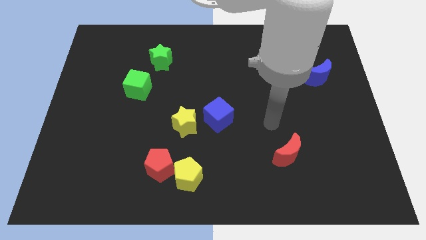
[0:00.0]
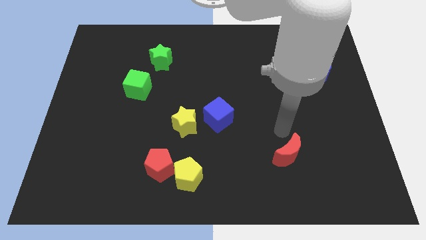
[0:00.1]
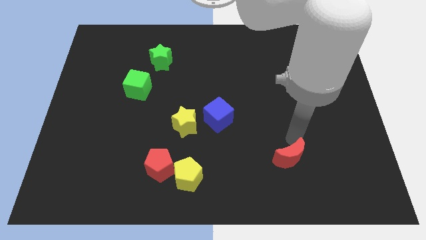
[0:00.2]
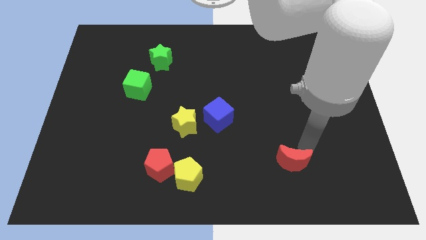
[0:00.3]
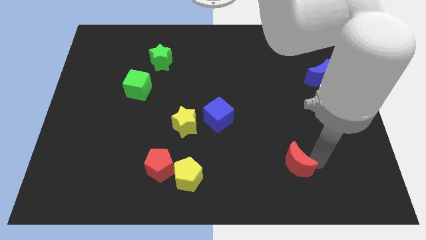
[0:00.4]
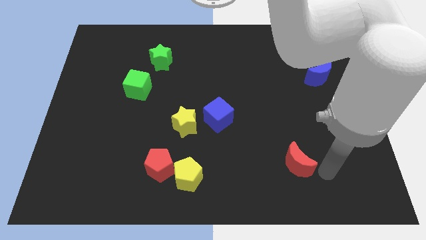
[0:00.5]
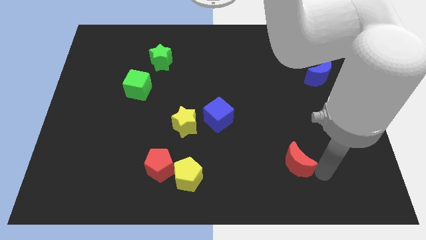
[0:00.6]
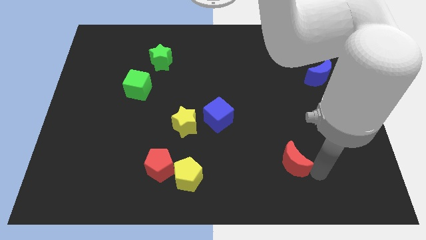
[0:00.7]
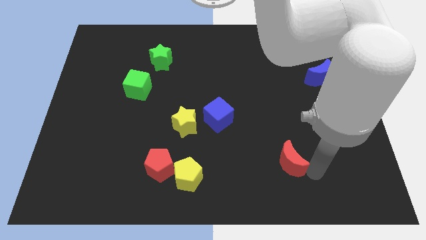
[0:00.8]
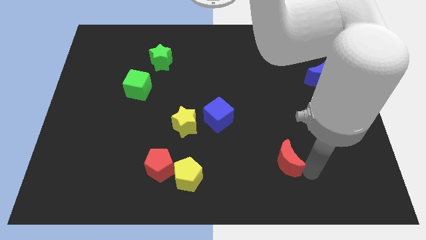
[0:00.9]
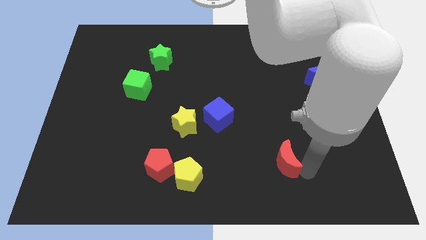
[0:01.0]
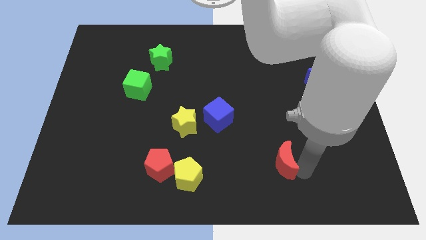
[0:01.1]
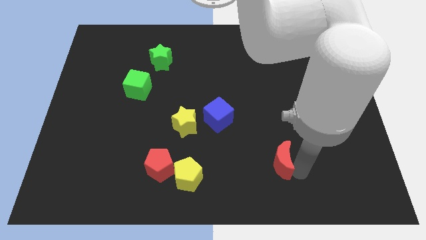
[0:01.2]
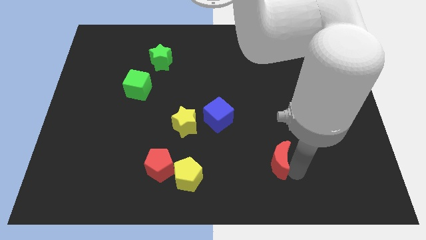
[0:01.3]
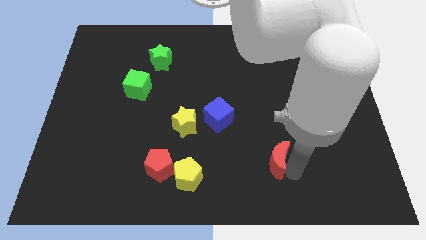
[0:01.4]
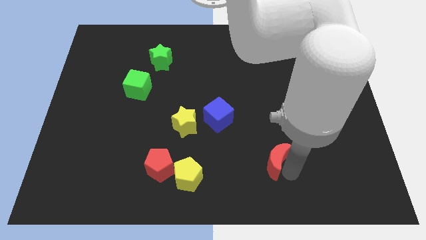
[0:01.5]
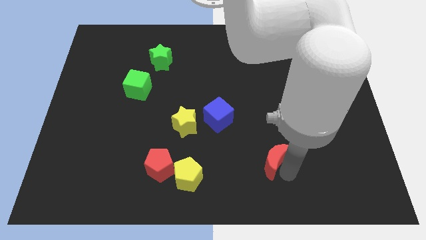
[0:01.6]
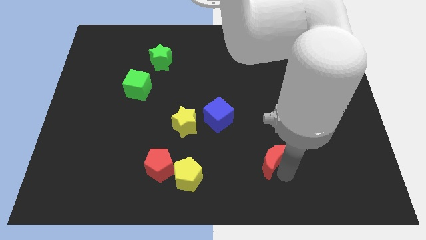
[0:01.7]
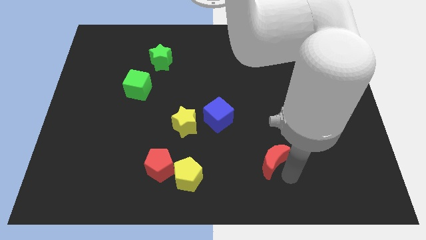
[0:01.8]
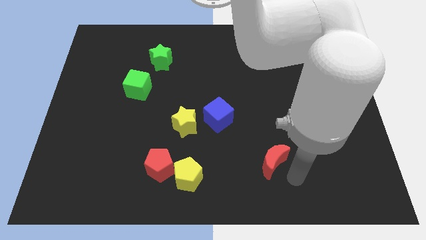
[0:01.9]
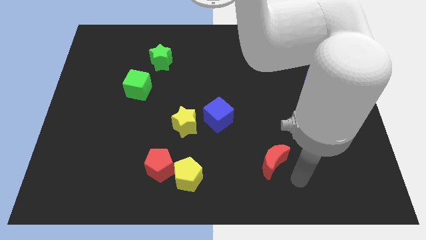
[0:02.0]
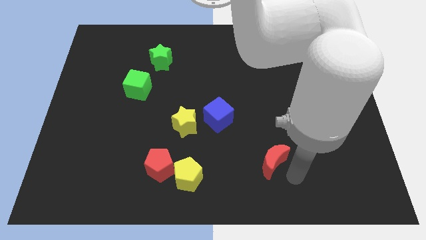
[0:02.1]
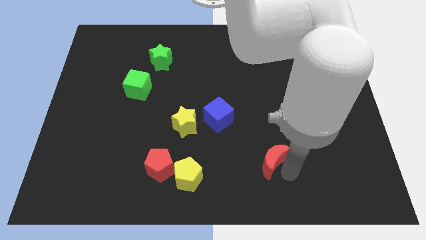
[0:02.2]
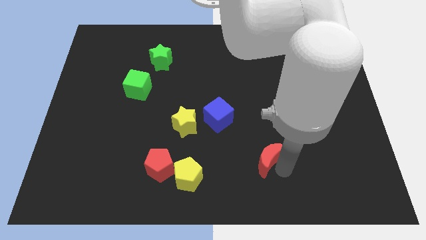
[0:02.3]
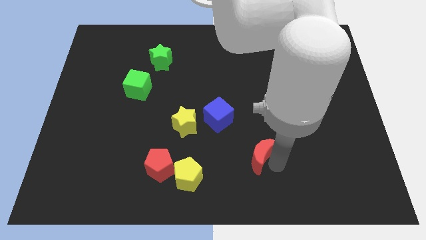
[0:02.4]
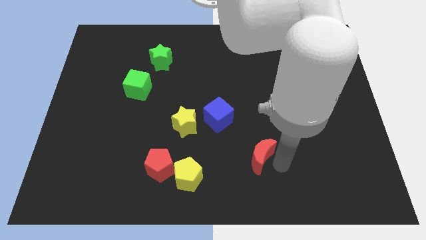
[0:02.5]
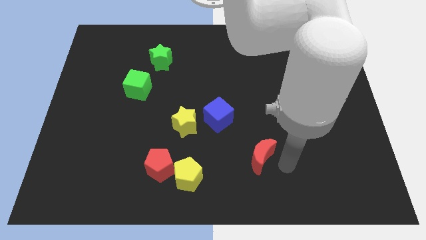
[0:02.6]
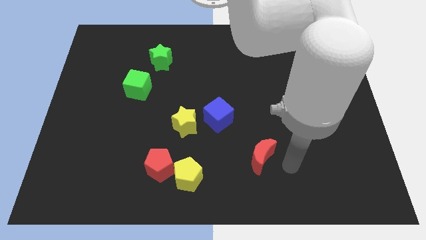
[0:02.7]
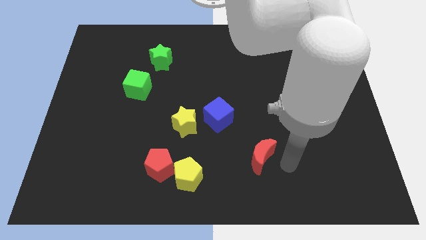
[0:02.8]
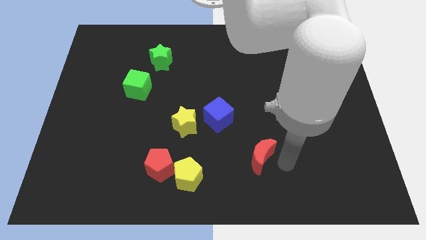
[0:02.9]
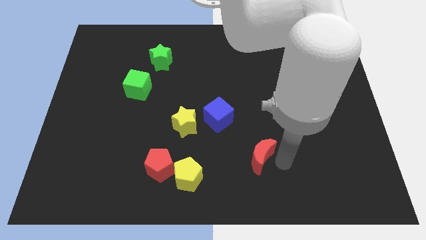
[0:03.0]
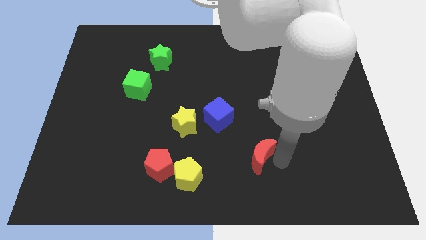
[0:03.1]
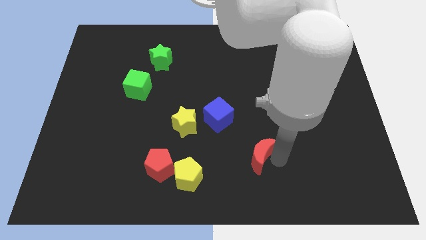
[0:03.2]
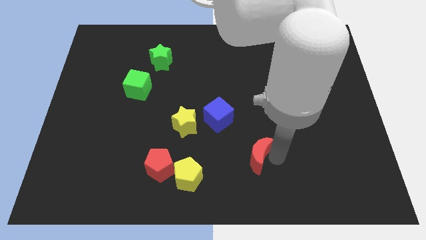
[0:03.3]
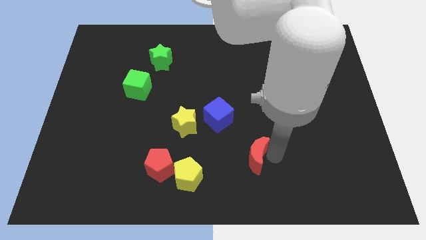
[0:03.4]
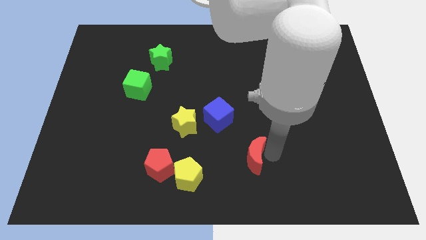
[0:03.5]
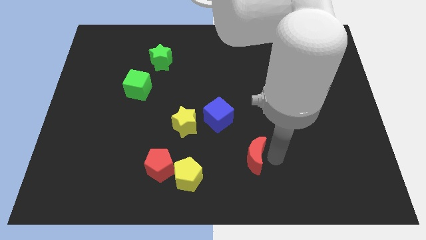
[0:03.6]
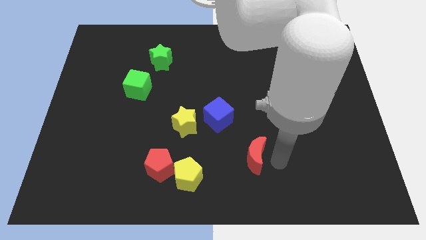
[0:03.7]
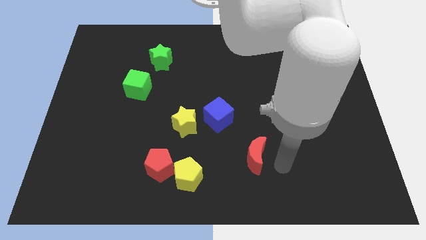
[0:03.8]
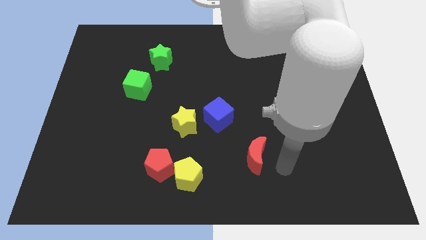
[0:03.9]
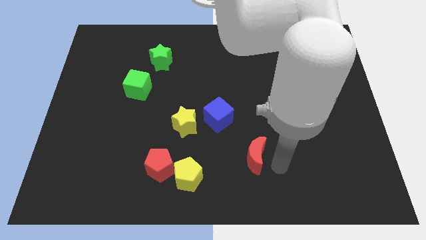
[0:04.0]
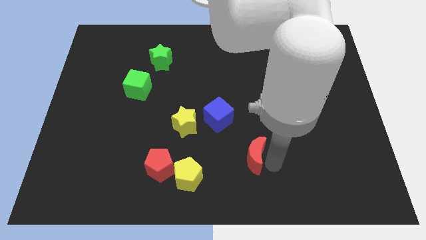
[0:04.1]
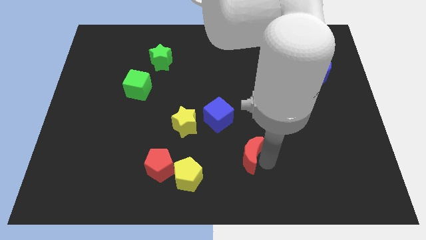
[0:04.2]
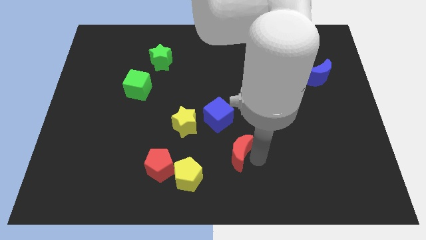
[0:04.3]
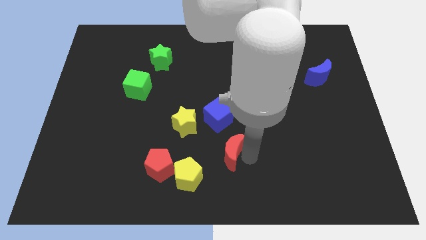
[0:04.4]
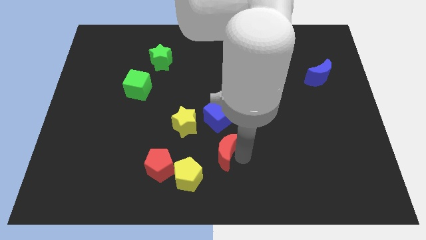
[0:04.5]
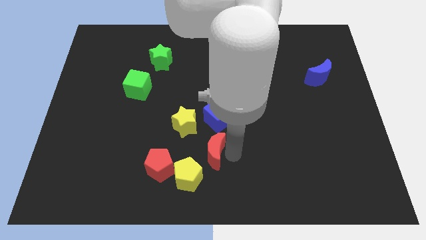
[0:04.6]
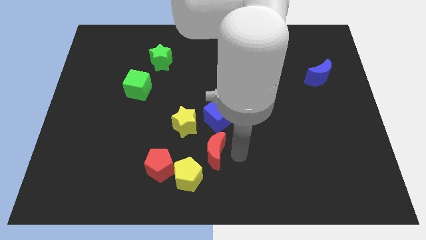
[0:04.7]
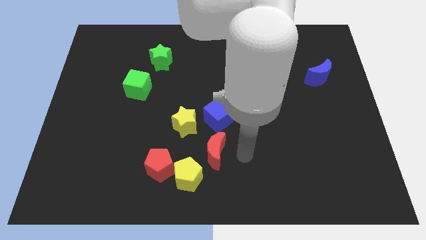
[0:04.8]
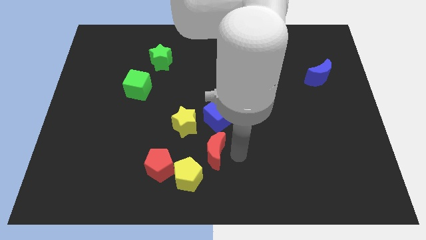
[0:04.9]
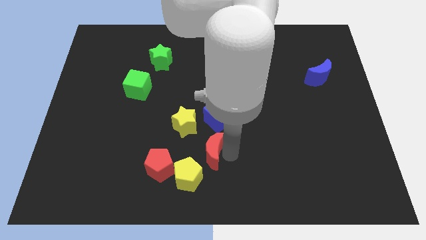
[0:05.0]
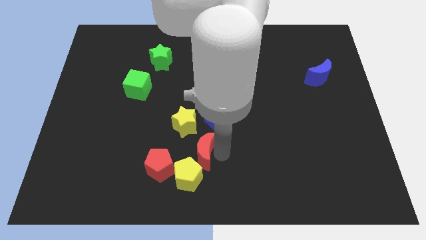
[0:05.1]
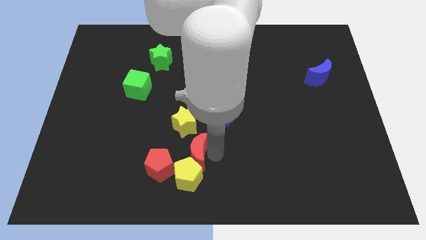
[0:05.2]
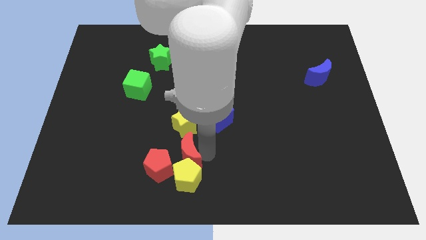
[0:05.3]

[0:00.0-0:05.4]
put the red moon to the top left of the yellow pentagon

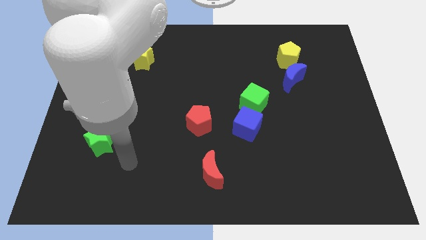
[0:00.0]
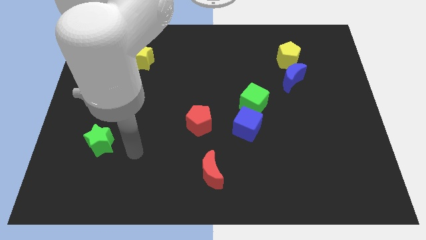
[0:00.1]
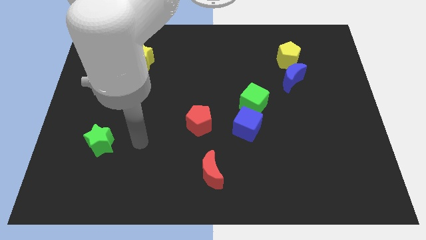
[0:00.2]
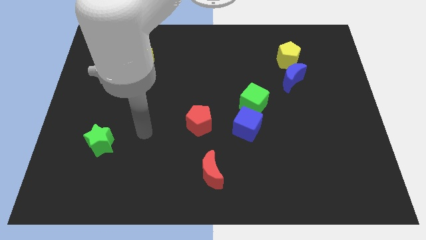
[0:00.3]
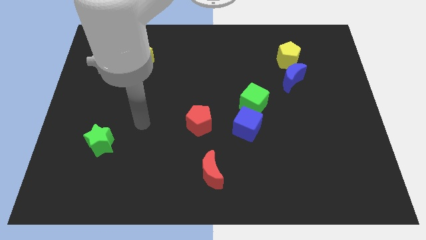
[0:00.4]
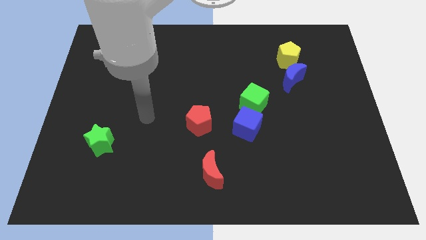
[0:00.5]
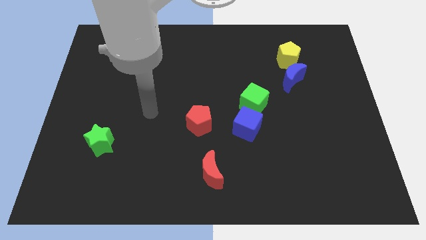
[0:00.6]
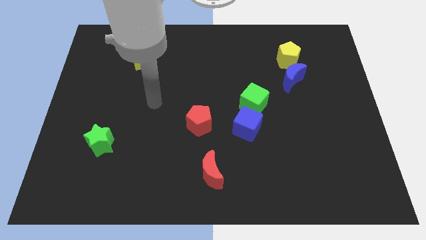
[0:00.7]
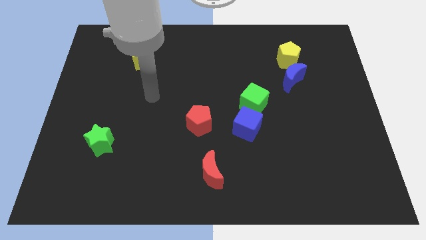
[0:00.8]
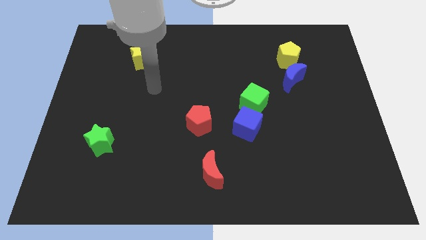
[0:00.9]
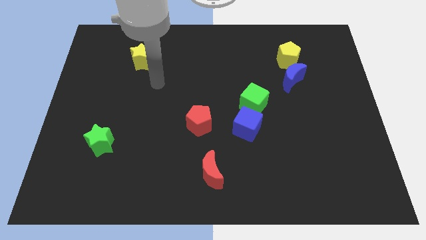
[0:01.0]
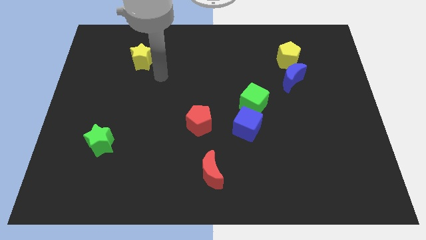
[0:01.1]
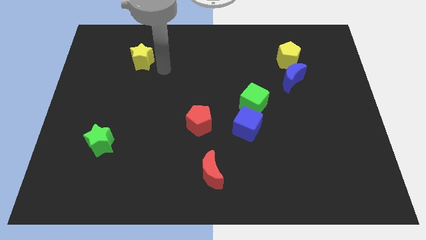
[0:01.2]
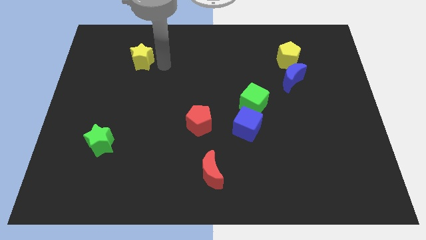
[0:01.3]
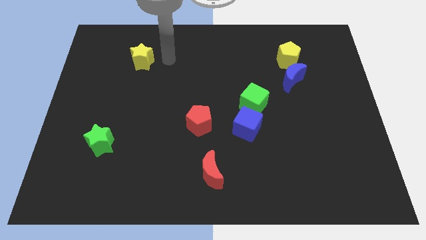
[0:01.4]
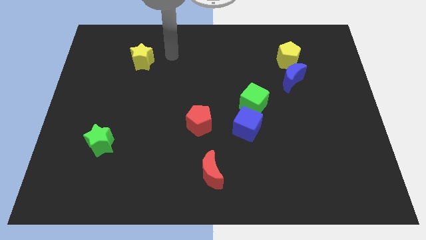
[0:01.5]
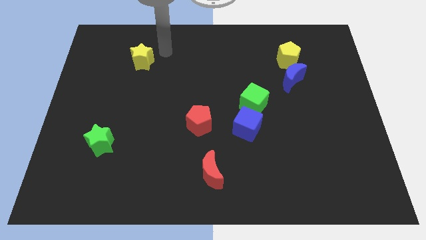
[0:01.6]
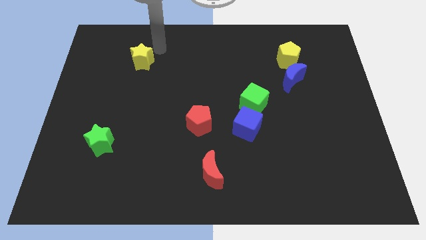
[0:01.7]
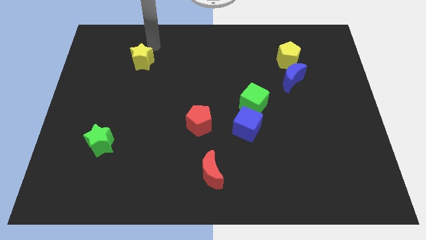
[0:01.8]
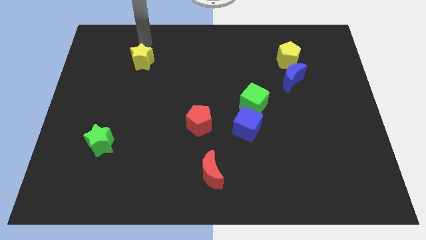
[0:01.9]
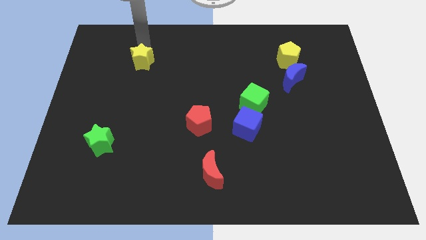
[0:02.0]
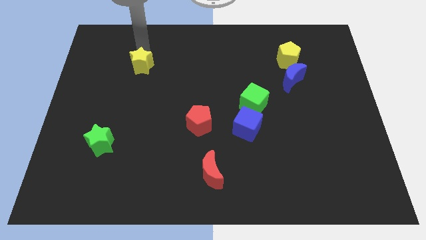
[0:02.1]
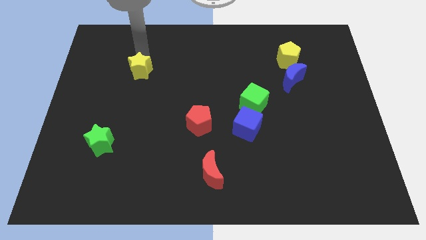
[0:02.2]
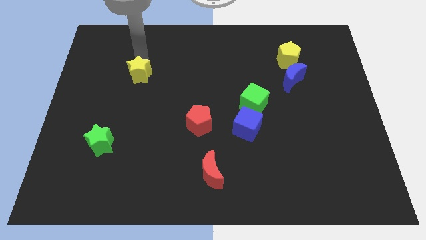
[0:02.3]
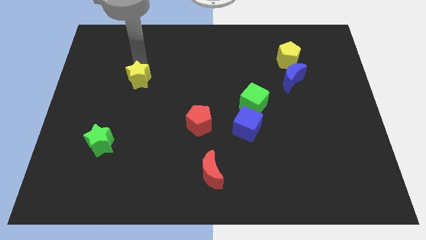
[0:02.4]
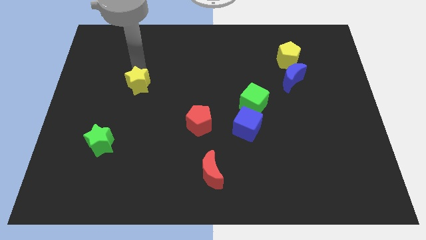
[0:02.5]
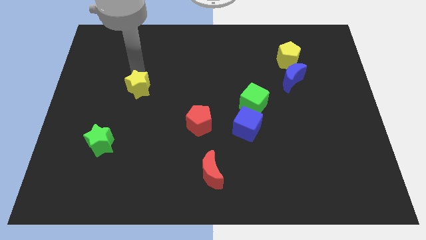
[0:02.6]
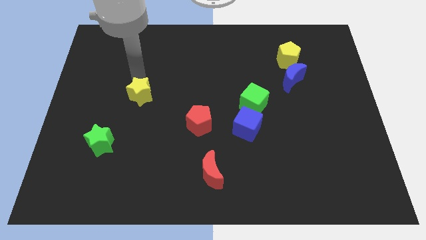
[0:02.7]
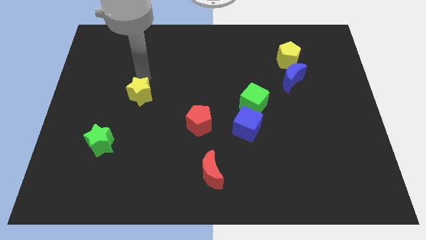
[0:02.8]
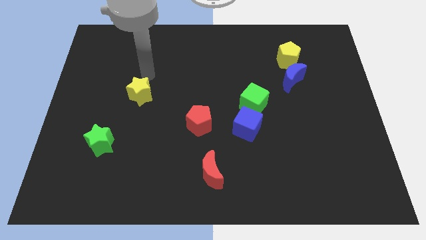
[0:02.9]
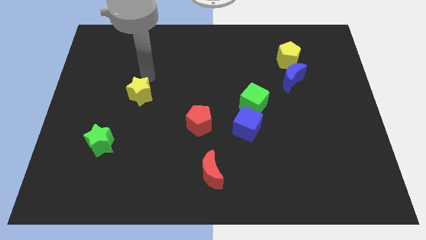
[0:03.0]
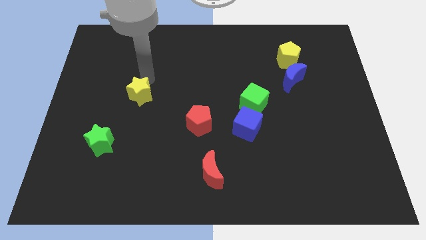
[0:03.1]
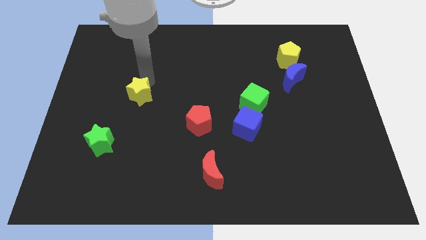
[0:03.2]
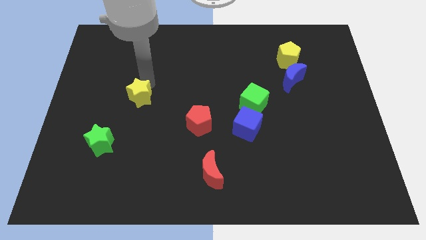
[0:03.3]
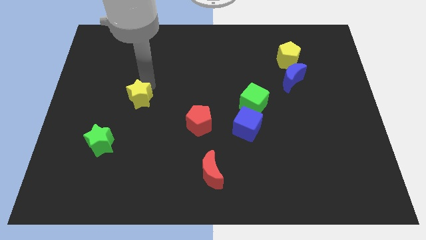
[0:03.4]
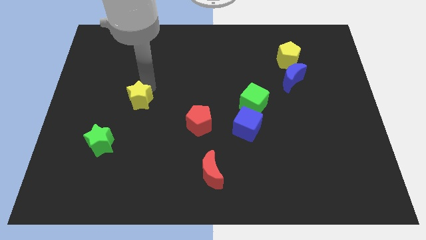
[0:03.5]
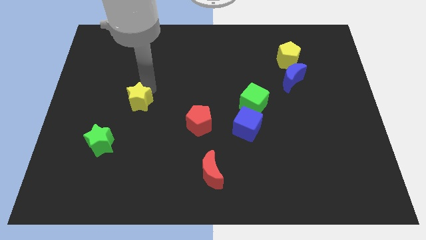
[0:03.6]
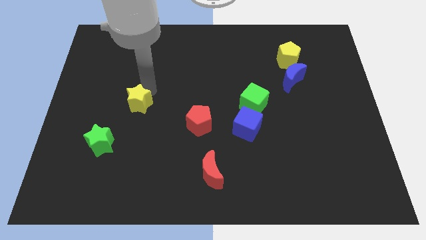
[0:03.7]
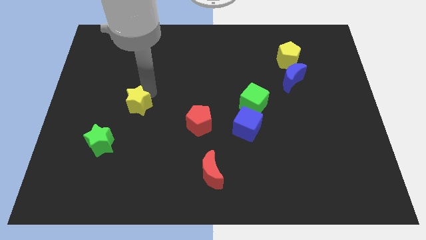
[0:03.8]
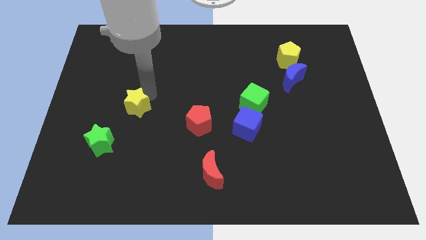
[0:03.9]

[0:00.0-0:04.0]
push the yellow star diagonally up and to the right of the green star
